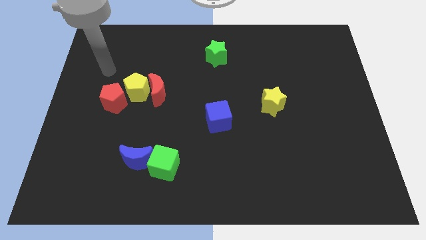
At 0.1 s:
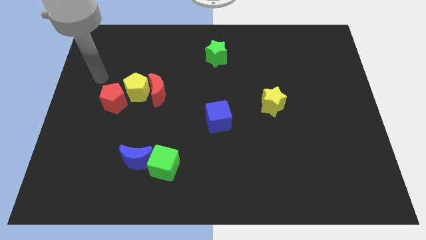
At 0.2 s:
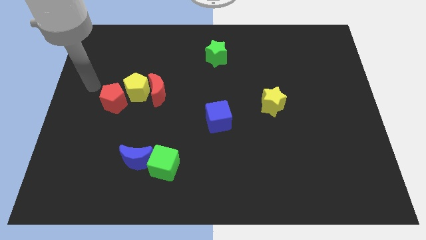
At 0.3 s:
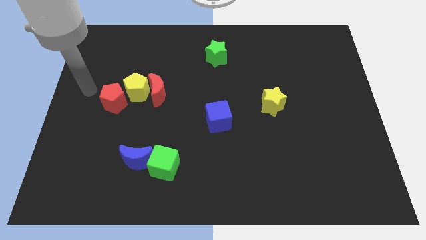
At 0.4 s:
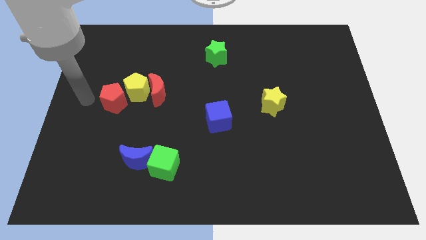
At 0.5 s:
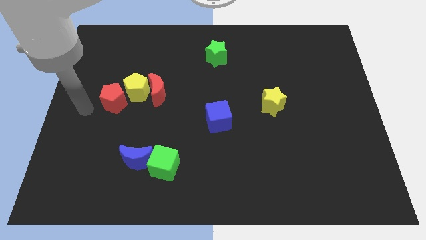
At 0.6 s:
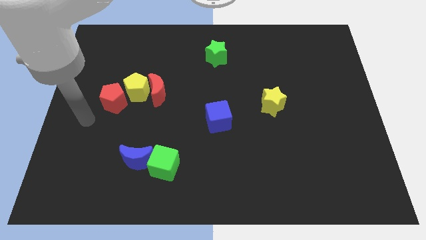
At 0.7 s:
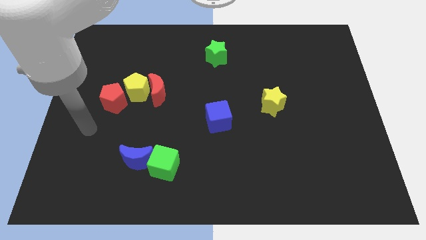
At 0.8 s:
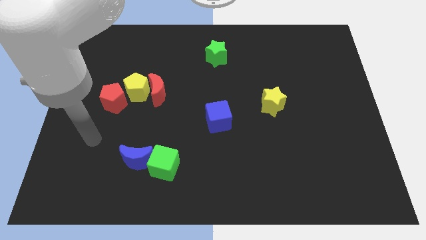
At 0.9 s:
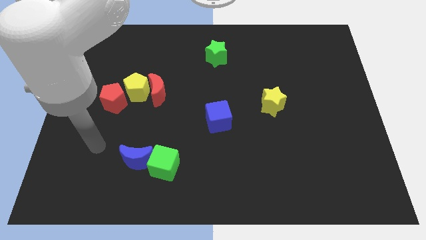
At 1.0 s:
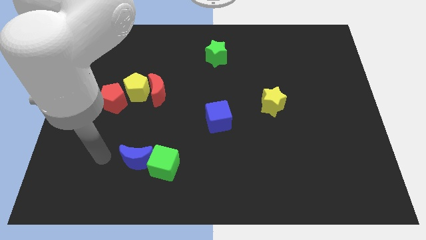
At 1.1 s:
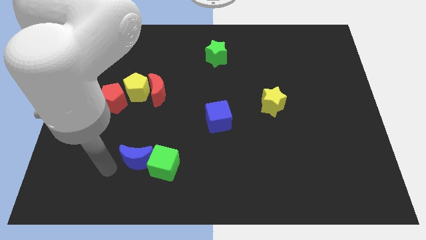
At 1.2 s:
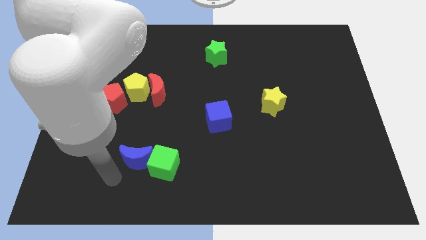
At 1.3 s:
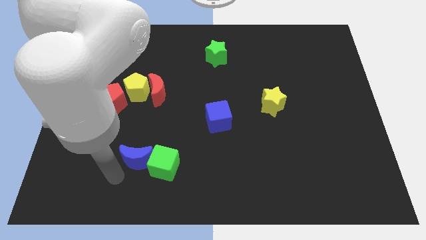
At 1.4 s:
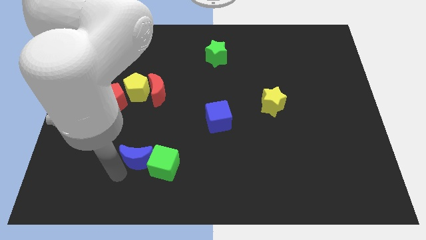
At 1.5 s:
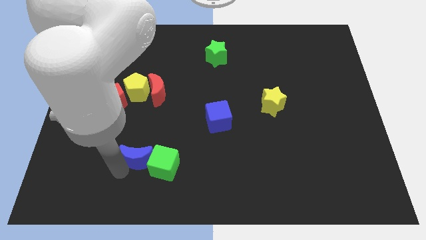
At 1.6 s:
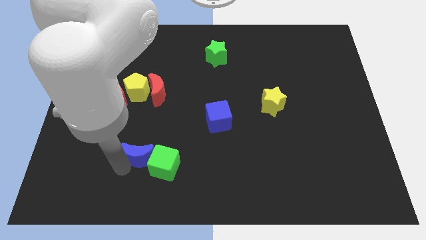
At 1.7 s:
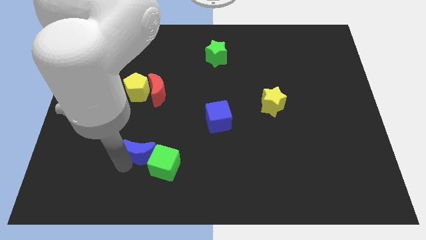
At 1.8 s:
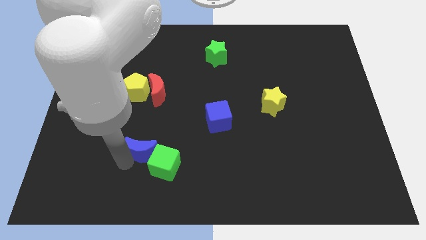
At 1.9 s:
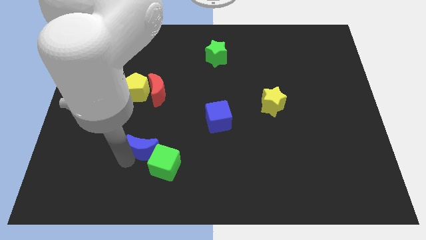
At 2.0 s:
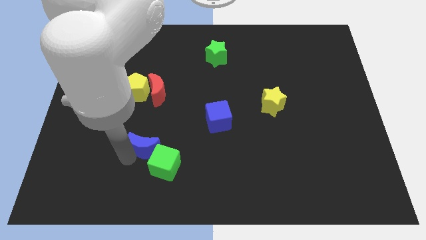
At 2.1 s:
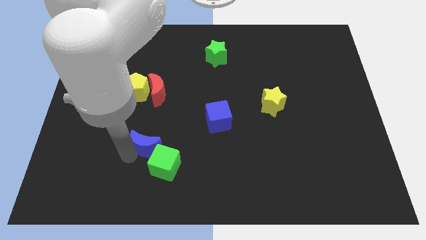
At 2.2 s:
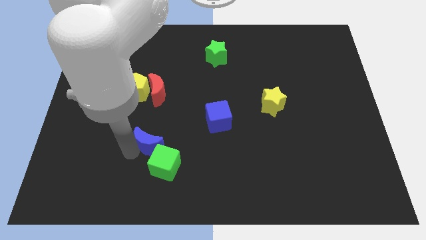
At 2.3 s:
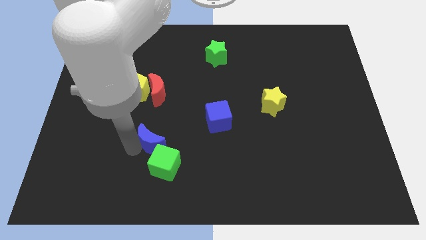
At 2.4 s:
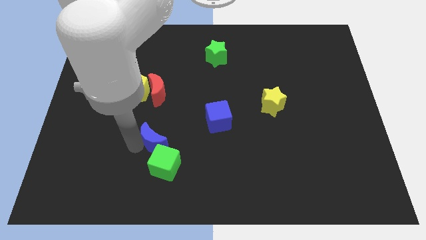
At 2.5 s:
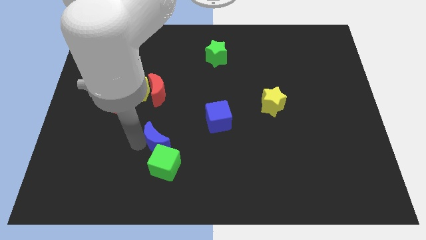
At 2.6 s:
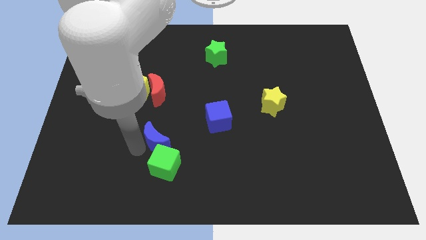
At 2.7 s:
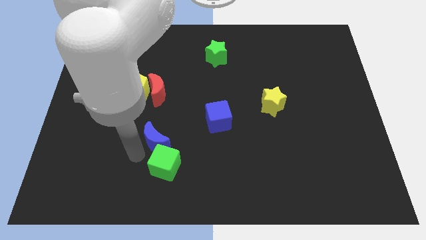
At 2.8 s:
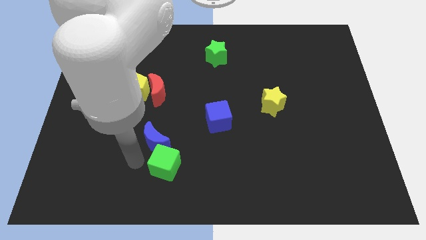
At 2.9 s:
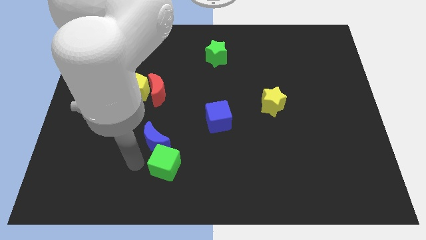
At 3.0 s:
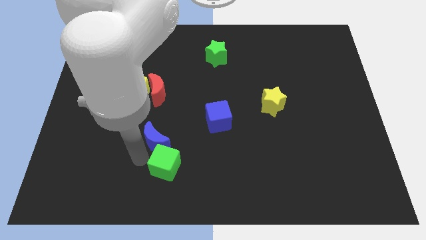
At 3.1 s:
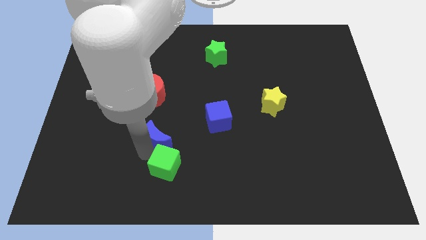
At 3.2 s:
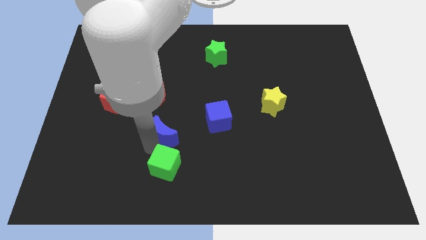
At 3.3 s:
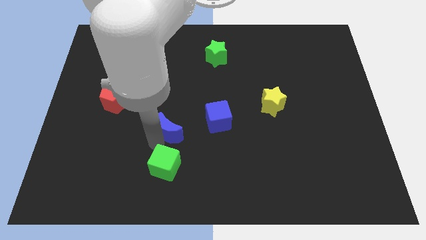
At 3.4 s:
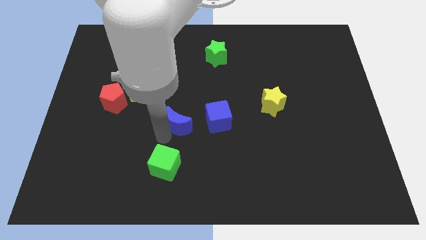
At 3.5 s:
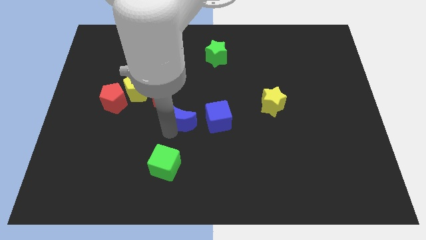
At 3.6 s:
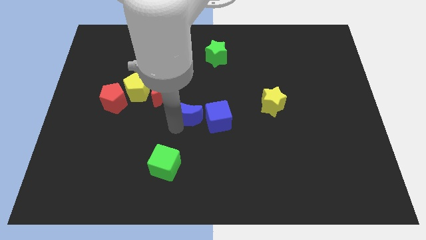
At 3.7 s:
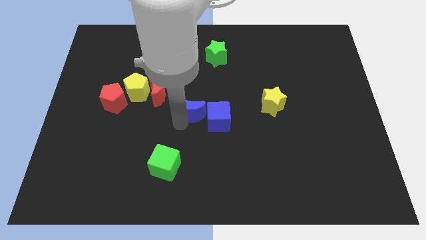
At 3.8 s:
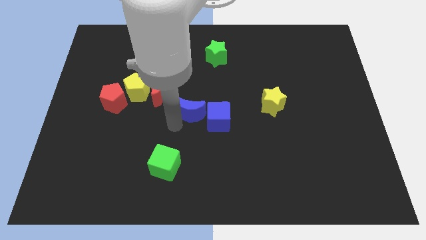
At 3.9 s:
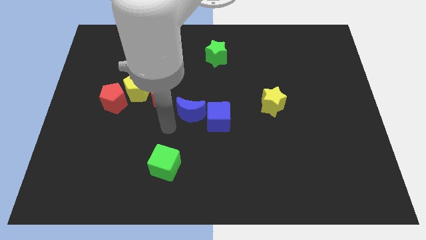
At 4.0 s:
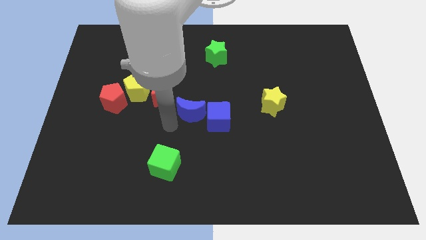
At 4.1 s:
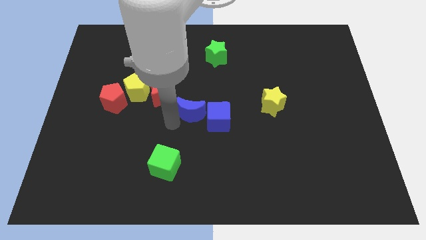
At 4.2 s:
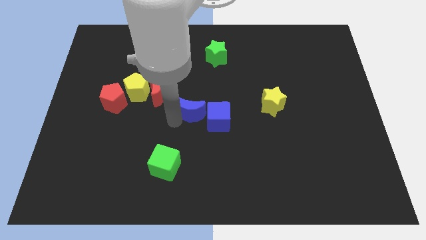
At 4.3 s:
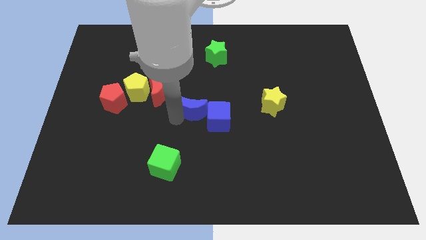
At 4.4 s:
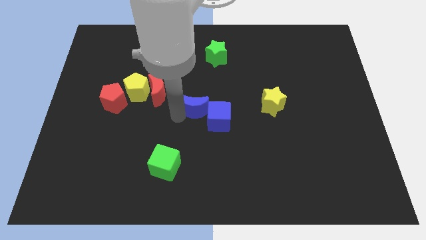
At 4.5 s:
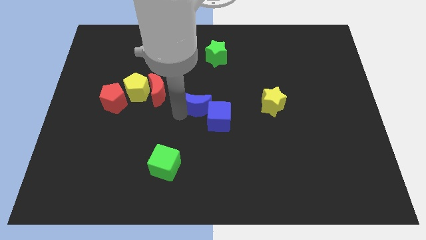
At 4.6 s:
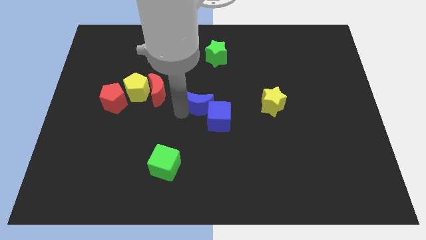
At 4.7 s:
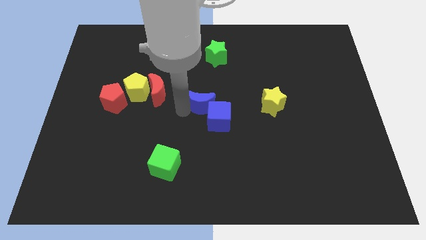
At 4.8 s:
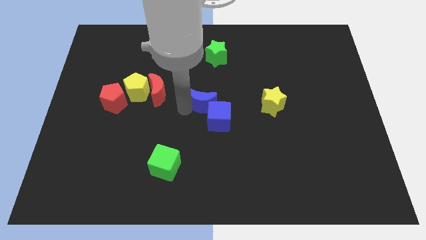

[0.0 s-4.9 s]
move the blue moon upwards and to the right

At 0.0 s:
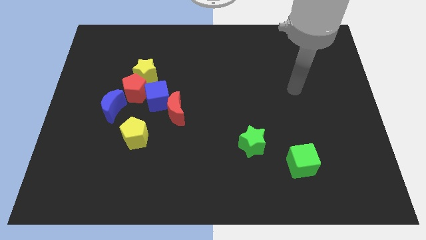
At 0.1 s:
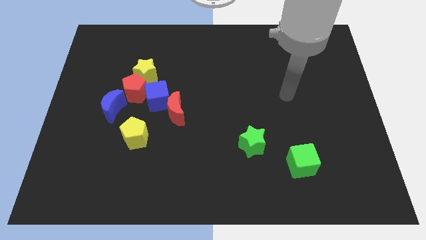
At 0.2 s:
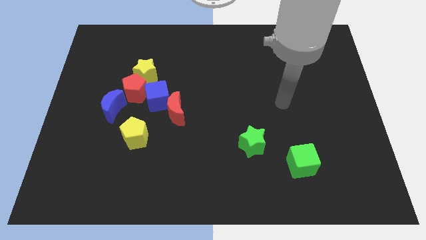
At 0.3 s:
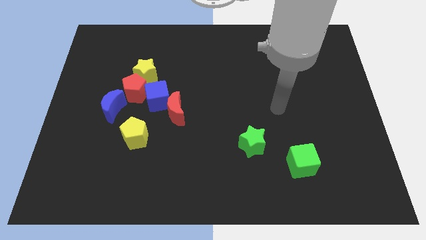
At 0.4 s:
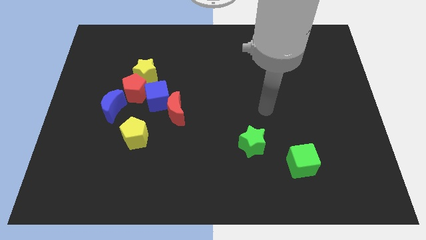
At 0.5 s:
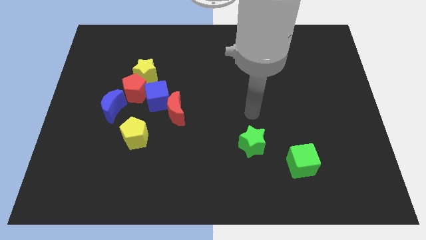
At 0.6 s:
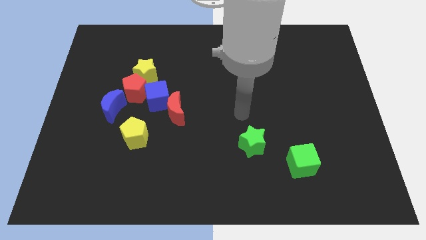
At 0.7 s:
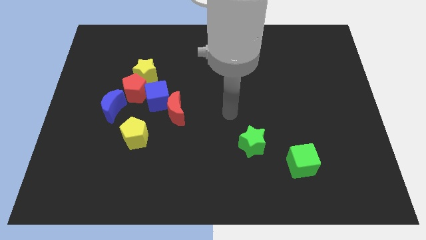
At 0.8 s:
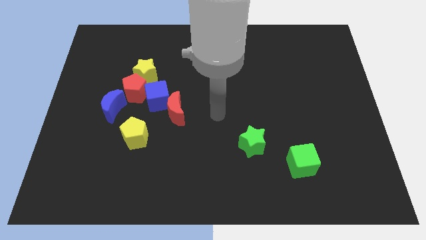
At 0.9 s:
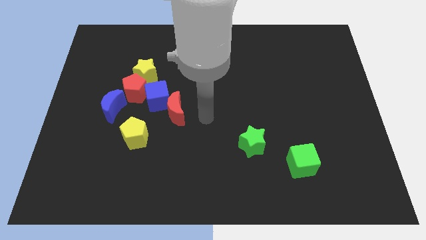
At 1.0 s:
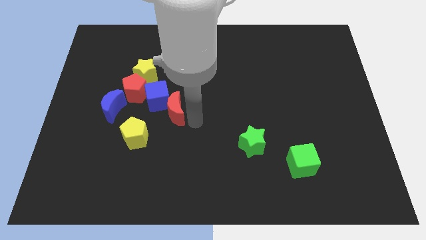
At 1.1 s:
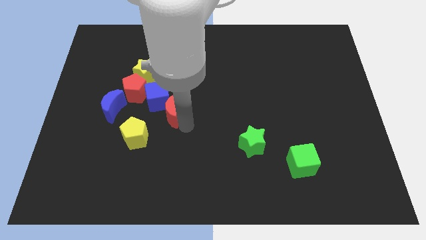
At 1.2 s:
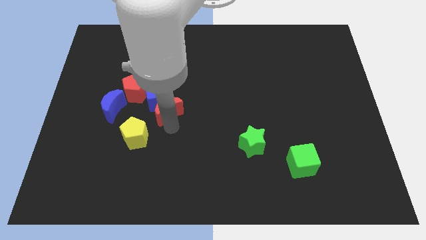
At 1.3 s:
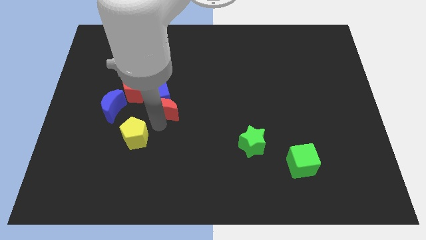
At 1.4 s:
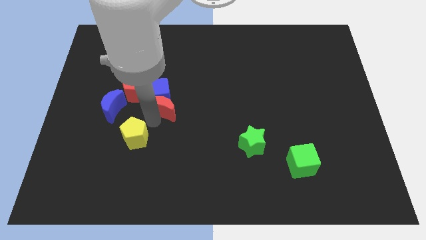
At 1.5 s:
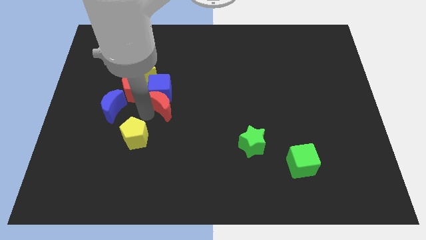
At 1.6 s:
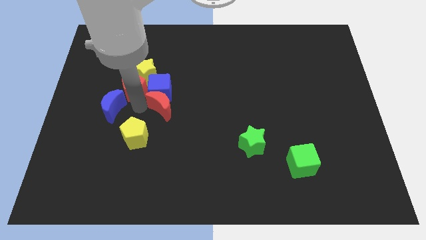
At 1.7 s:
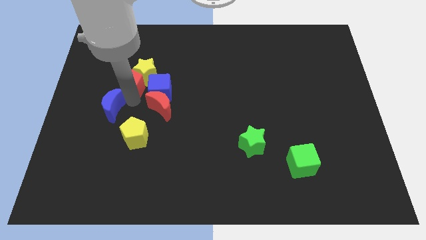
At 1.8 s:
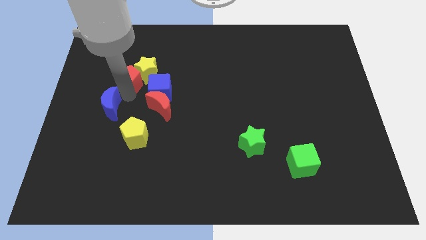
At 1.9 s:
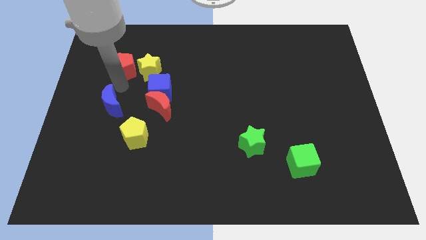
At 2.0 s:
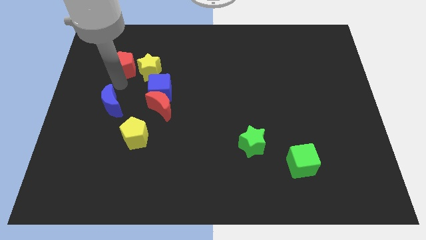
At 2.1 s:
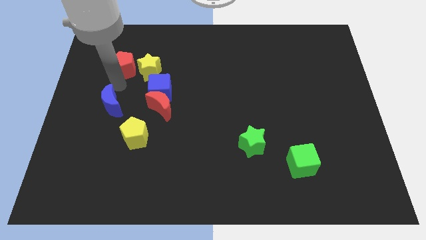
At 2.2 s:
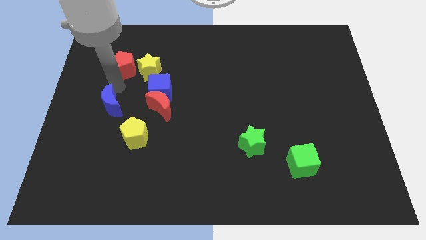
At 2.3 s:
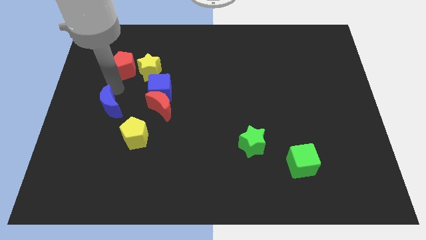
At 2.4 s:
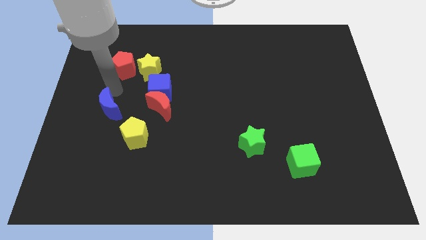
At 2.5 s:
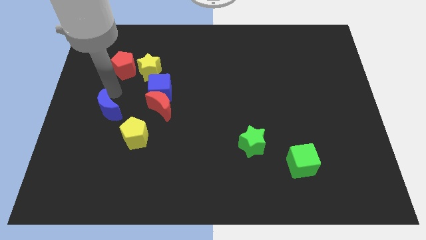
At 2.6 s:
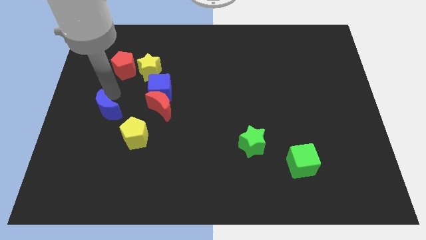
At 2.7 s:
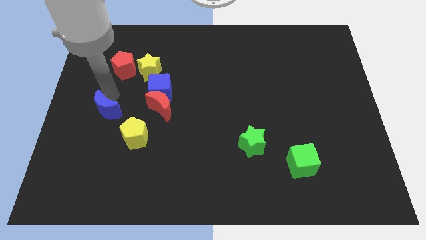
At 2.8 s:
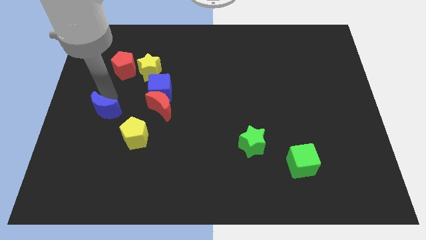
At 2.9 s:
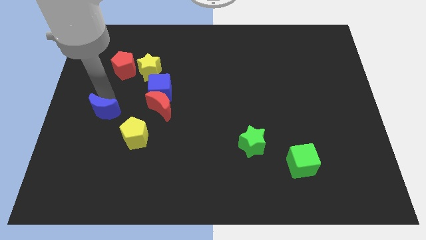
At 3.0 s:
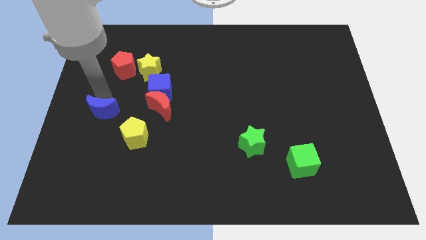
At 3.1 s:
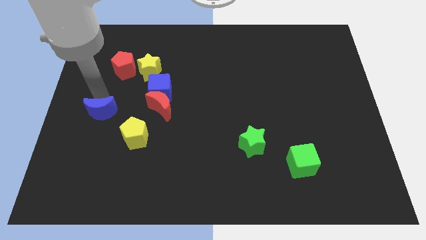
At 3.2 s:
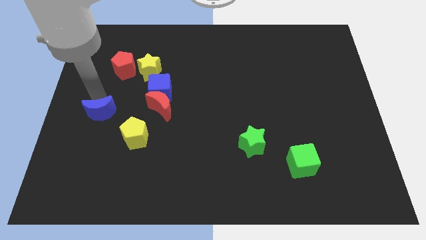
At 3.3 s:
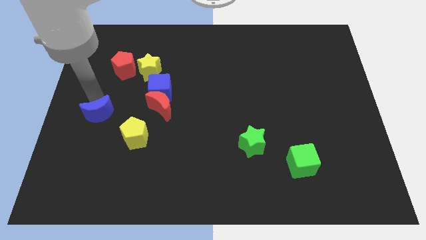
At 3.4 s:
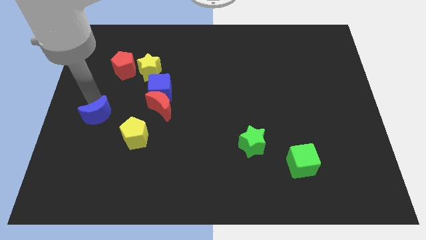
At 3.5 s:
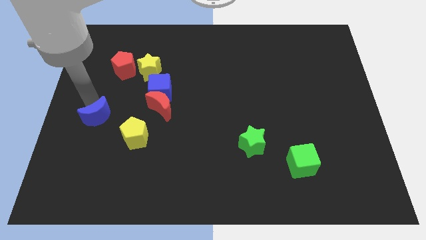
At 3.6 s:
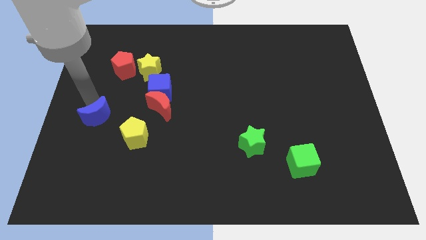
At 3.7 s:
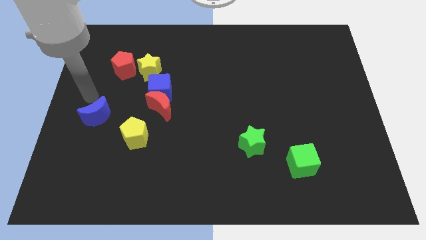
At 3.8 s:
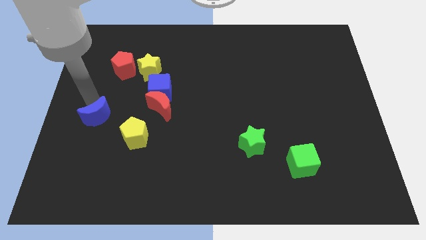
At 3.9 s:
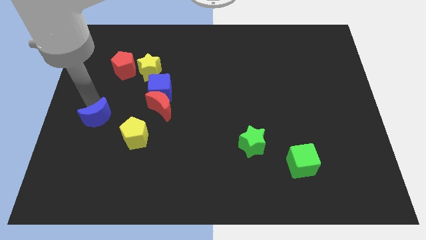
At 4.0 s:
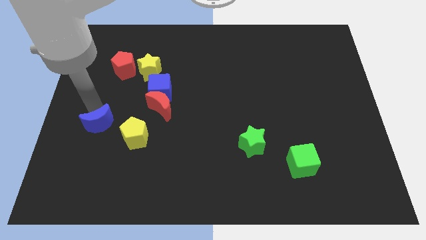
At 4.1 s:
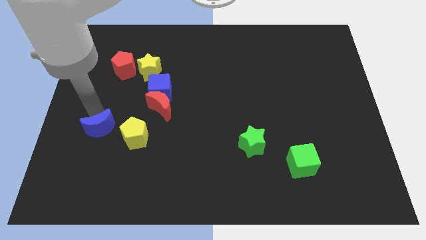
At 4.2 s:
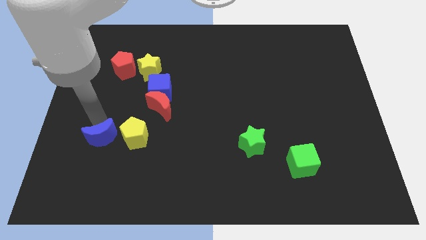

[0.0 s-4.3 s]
slide the blue moon down a little bit
